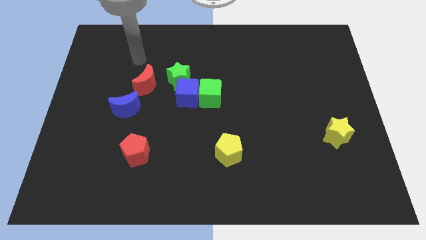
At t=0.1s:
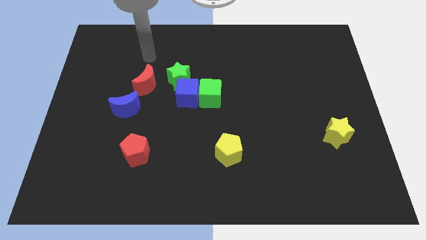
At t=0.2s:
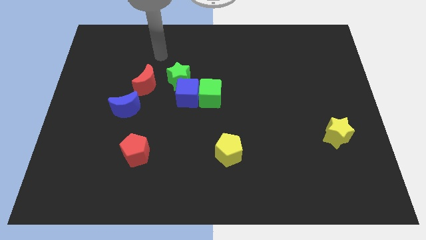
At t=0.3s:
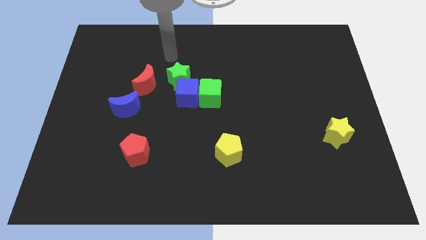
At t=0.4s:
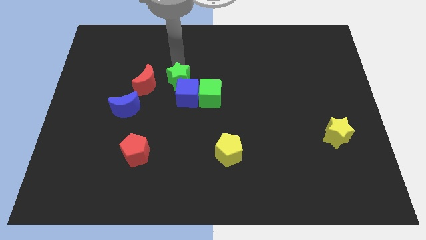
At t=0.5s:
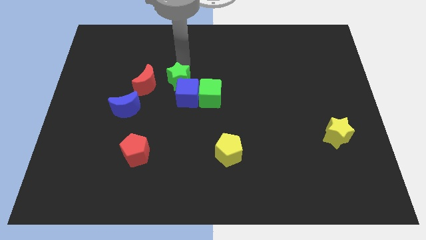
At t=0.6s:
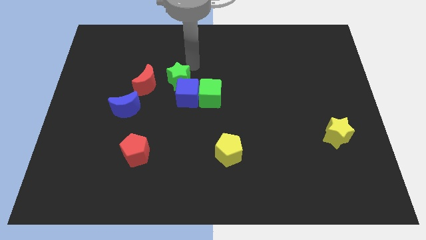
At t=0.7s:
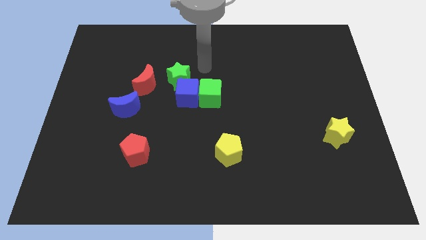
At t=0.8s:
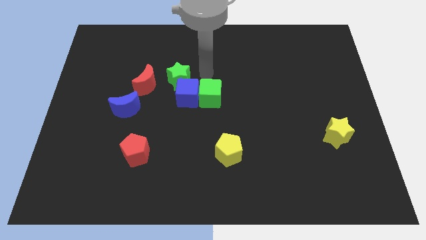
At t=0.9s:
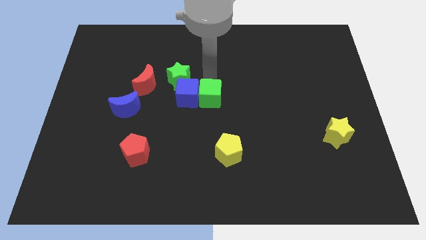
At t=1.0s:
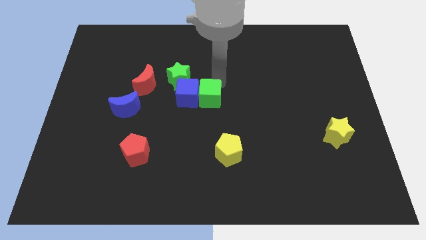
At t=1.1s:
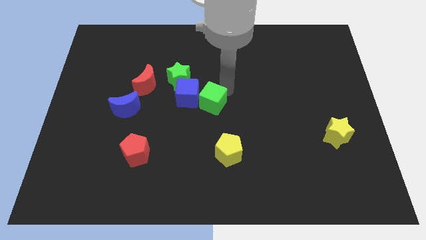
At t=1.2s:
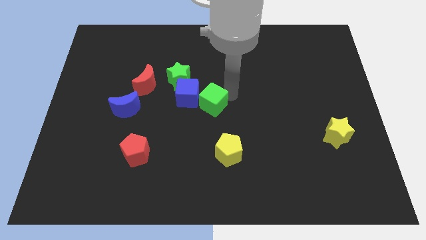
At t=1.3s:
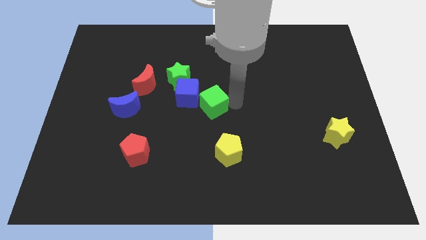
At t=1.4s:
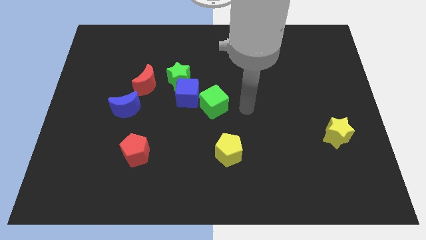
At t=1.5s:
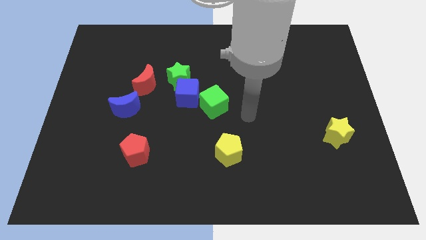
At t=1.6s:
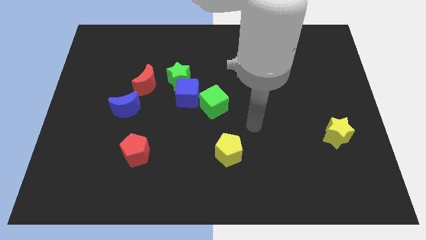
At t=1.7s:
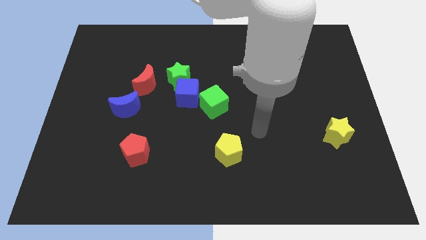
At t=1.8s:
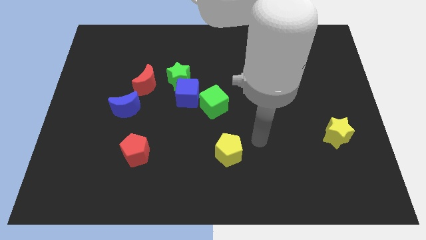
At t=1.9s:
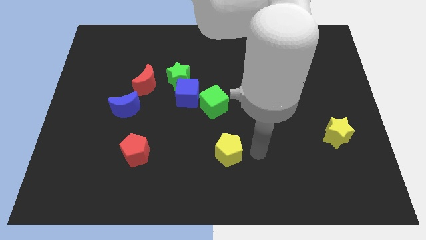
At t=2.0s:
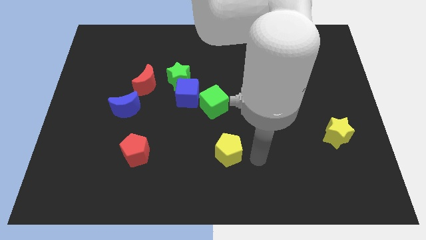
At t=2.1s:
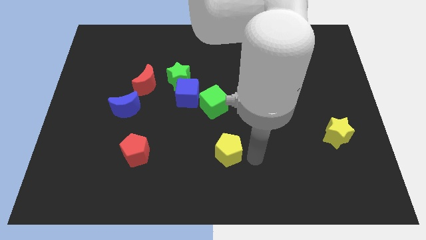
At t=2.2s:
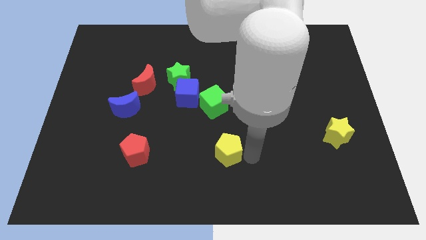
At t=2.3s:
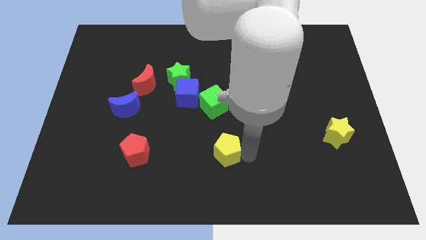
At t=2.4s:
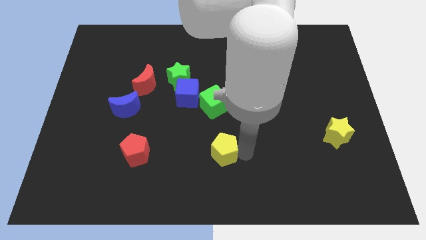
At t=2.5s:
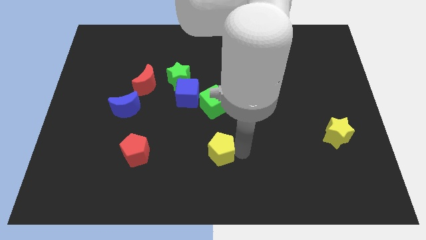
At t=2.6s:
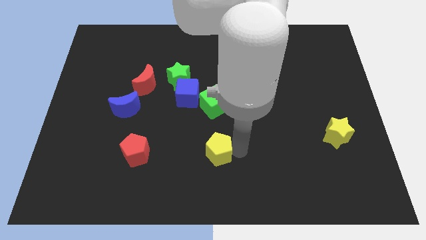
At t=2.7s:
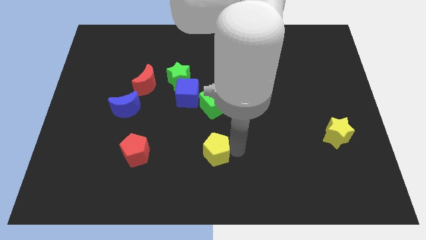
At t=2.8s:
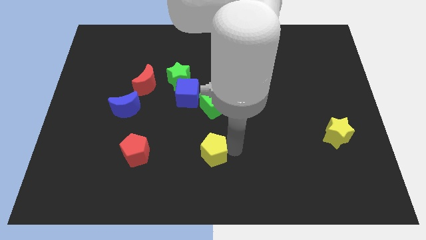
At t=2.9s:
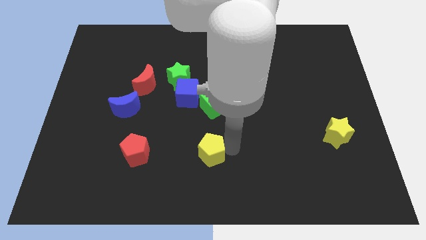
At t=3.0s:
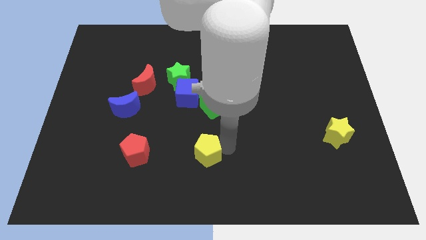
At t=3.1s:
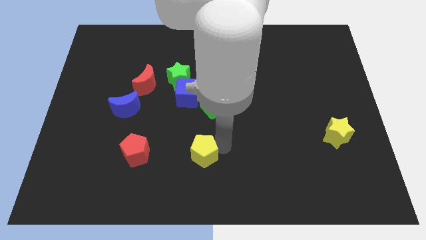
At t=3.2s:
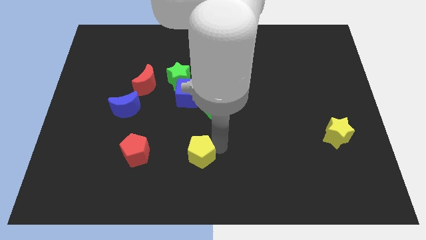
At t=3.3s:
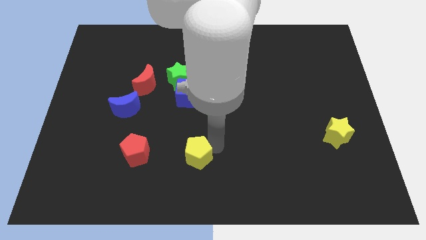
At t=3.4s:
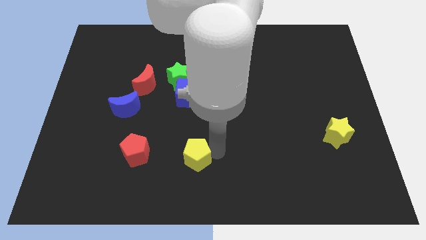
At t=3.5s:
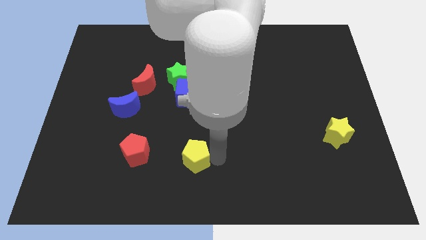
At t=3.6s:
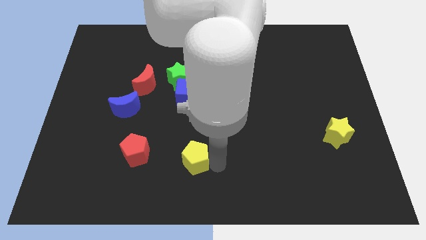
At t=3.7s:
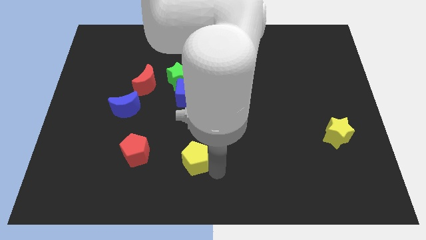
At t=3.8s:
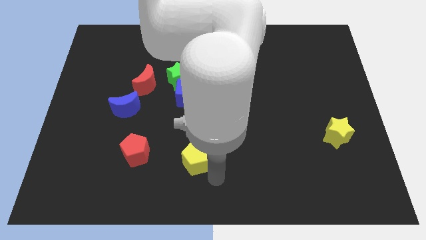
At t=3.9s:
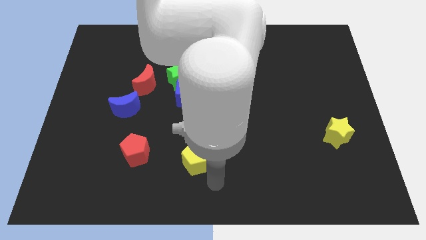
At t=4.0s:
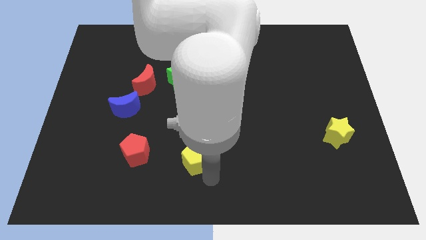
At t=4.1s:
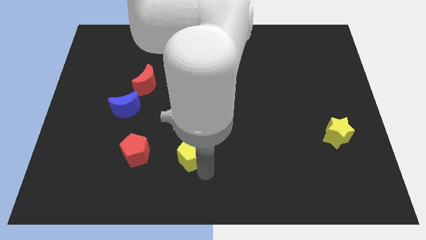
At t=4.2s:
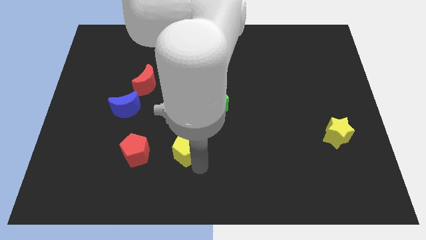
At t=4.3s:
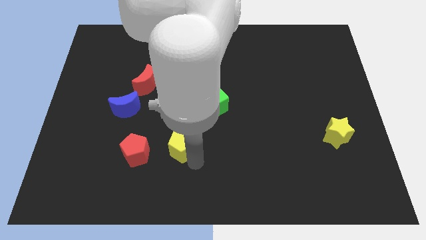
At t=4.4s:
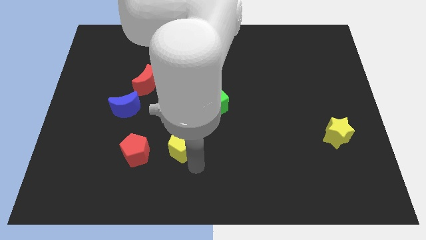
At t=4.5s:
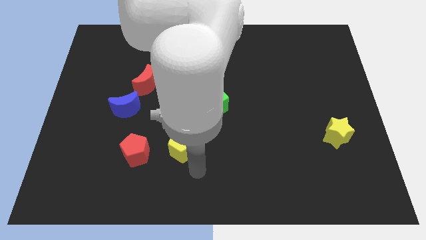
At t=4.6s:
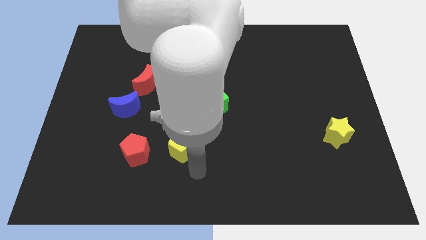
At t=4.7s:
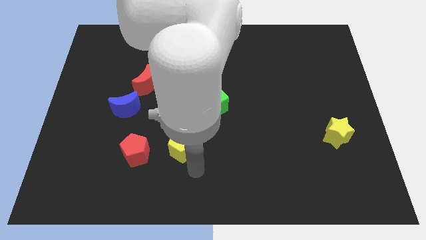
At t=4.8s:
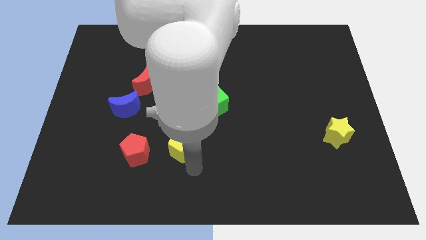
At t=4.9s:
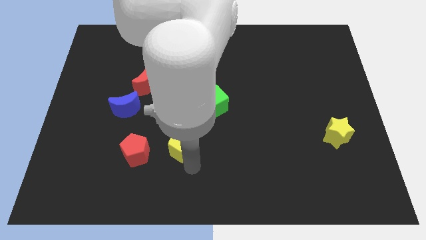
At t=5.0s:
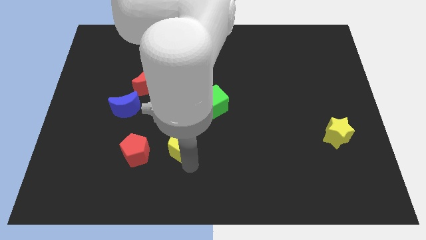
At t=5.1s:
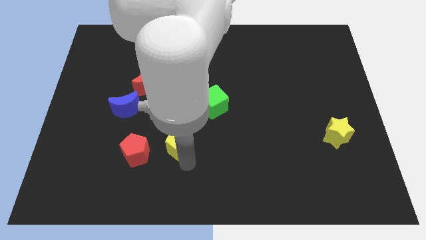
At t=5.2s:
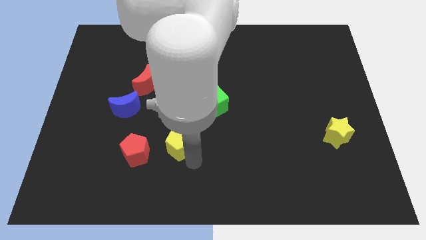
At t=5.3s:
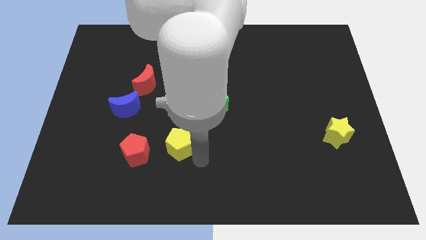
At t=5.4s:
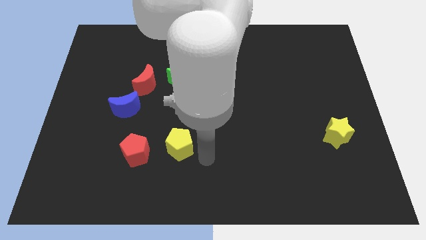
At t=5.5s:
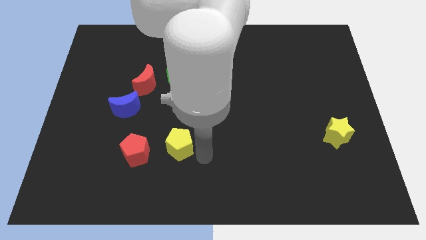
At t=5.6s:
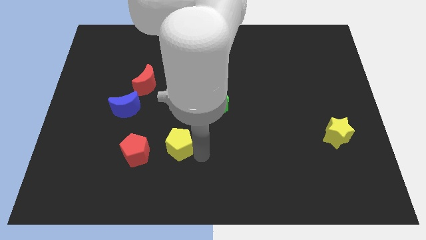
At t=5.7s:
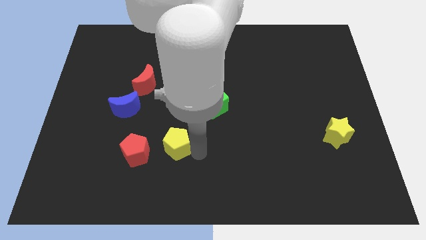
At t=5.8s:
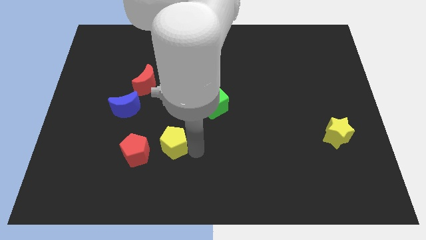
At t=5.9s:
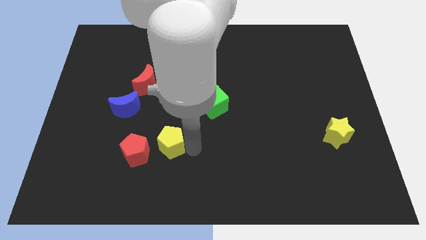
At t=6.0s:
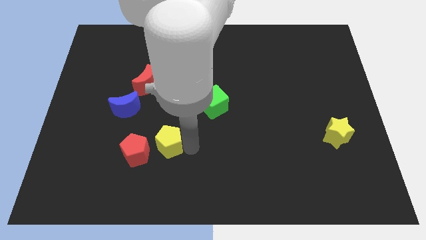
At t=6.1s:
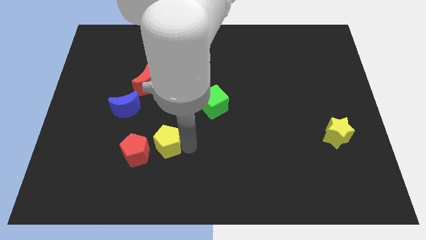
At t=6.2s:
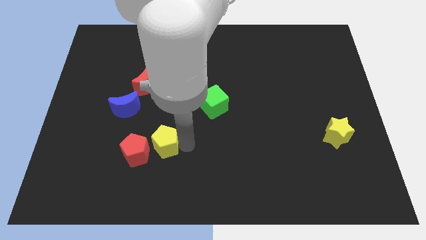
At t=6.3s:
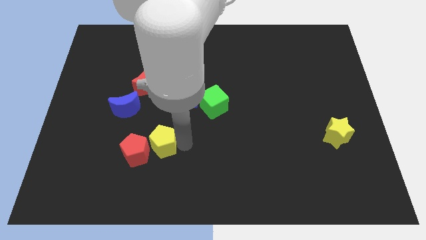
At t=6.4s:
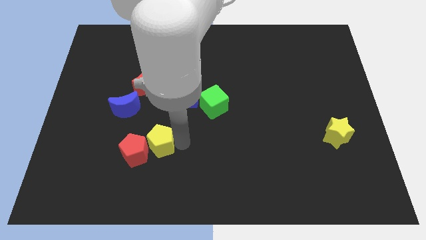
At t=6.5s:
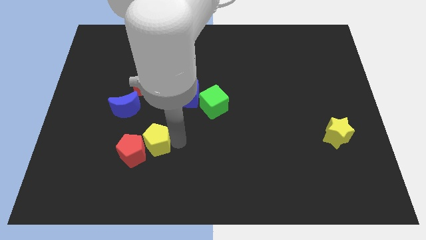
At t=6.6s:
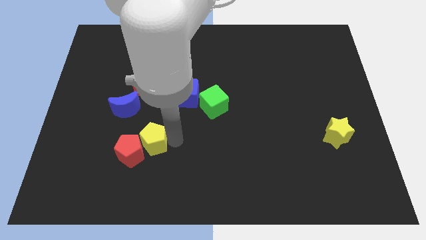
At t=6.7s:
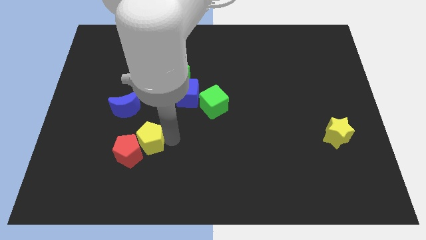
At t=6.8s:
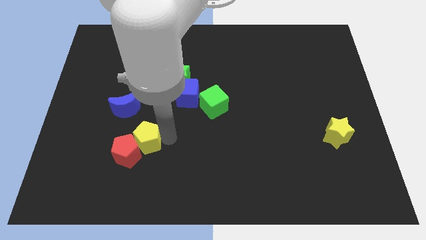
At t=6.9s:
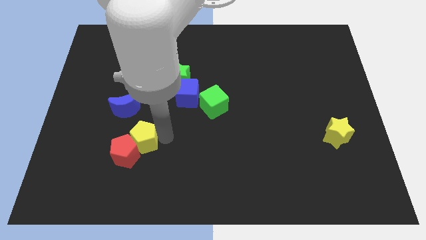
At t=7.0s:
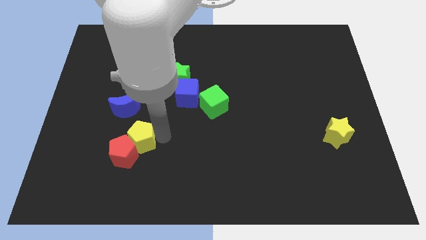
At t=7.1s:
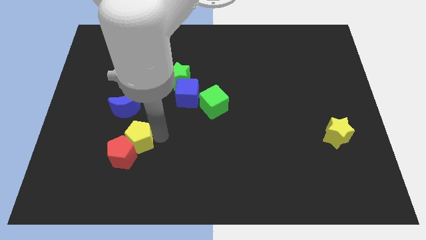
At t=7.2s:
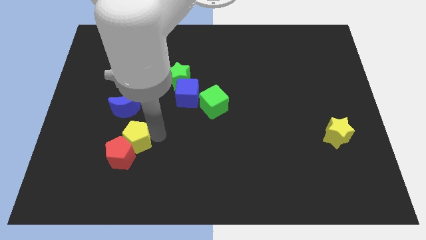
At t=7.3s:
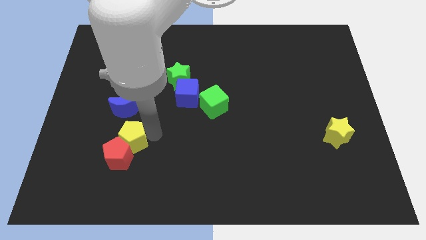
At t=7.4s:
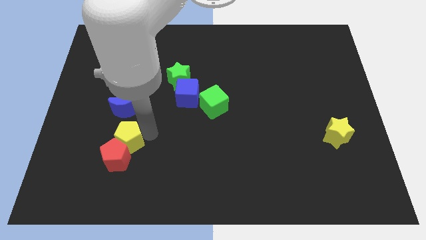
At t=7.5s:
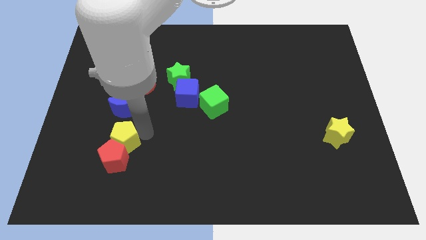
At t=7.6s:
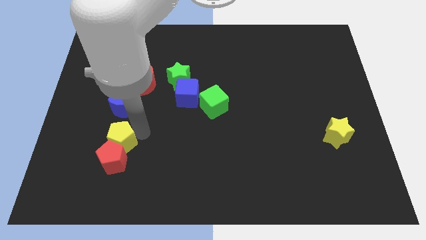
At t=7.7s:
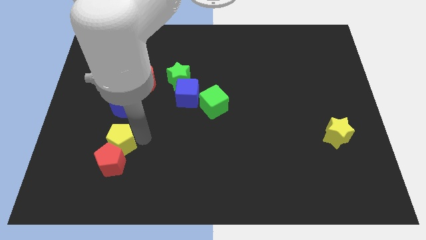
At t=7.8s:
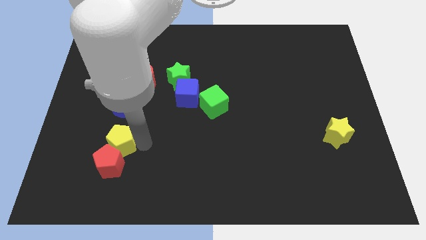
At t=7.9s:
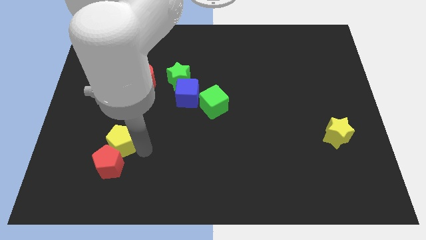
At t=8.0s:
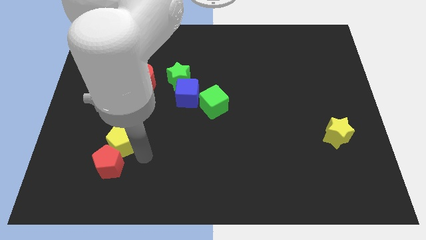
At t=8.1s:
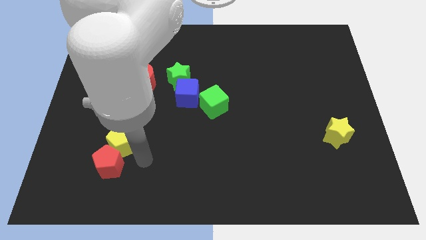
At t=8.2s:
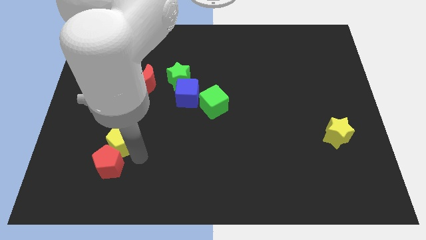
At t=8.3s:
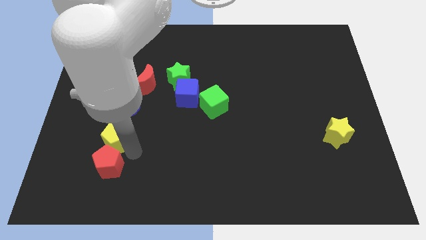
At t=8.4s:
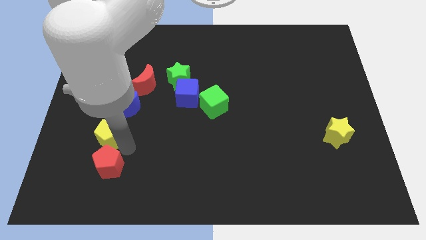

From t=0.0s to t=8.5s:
move the yellow pentagon diagonally down and to the left of the blue moon
